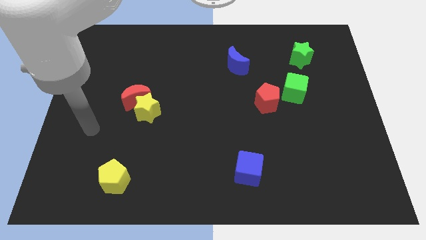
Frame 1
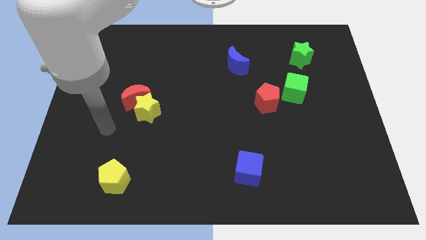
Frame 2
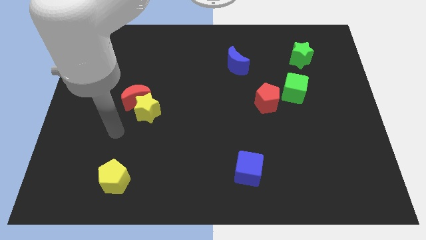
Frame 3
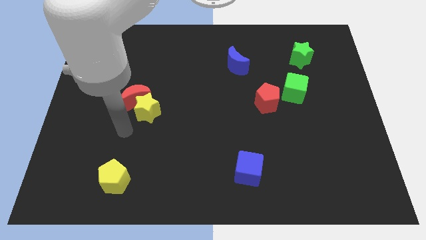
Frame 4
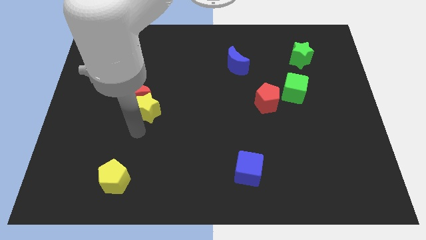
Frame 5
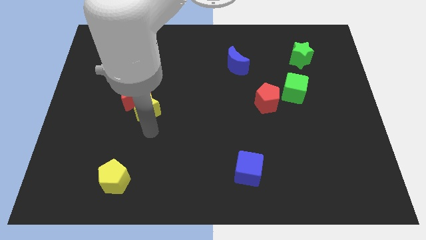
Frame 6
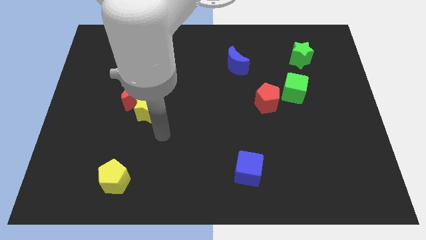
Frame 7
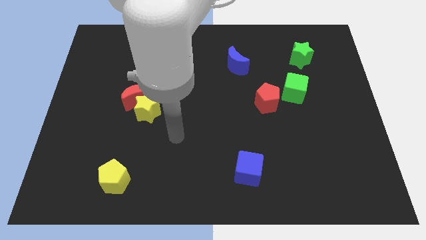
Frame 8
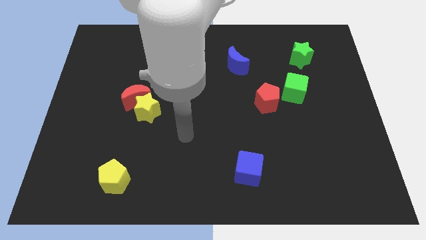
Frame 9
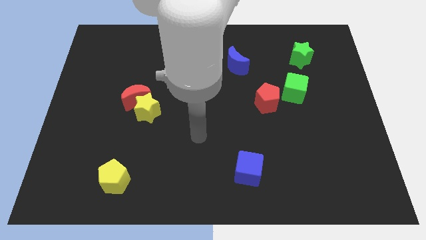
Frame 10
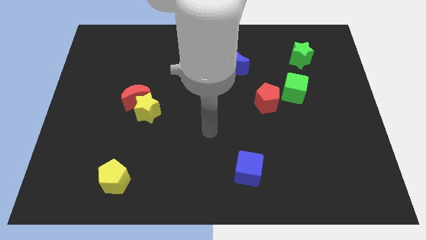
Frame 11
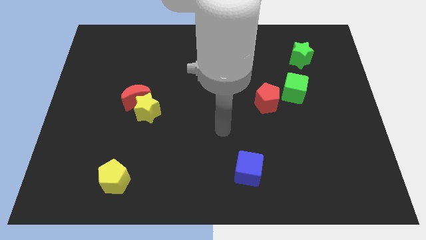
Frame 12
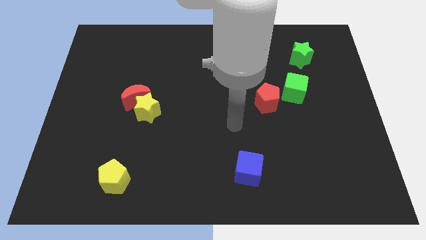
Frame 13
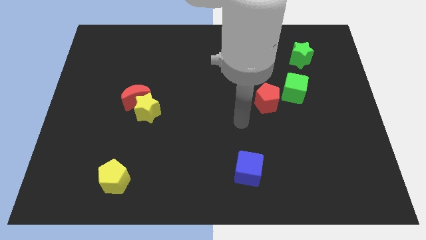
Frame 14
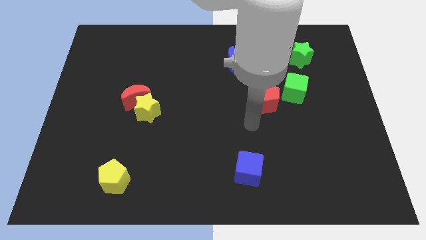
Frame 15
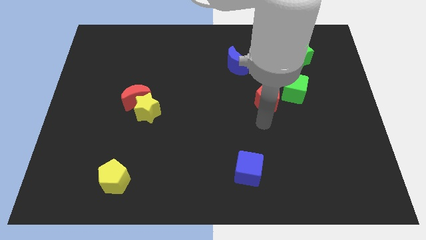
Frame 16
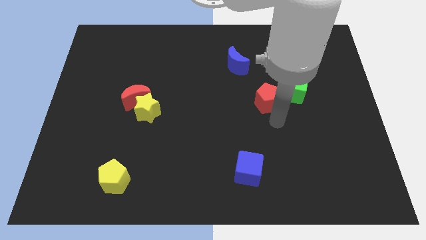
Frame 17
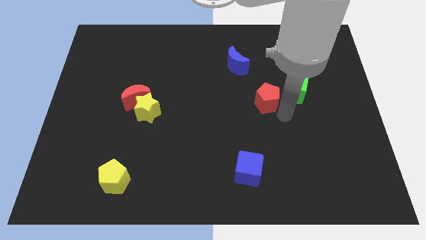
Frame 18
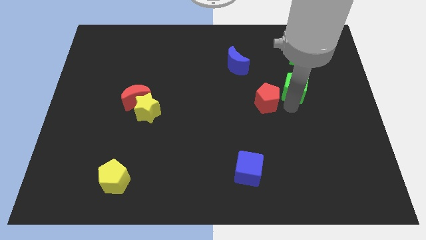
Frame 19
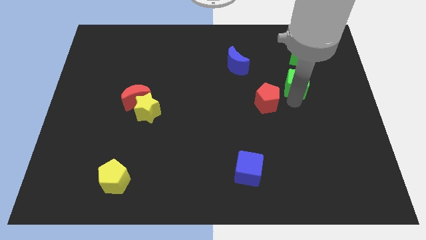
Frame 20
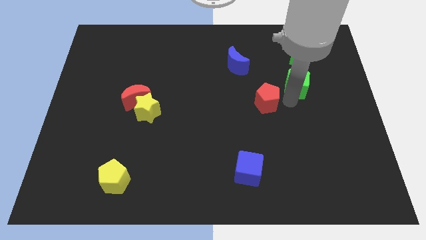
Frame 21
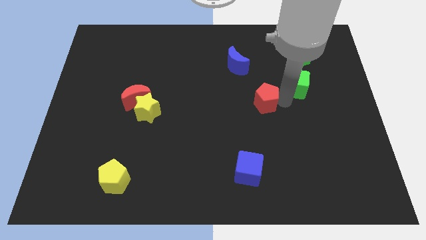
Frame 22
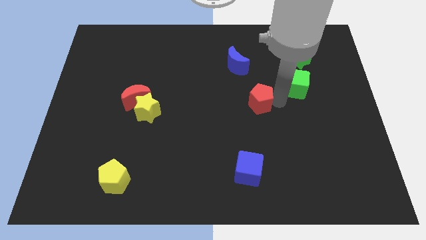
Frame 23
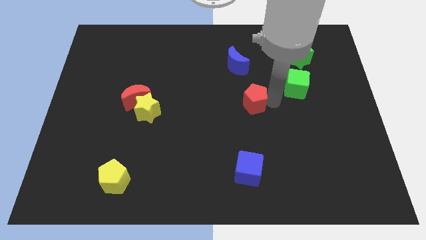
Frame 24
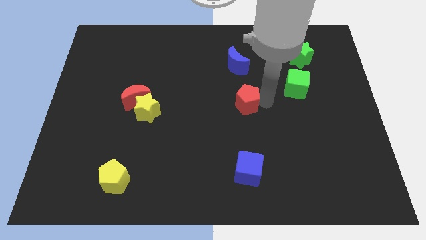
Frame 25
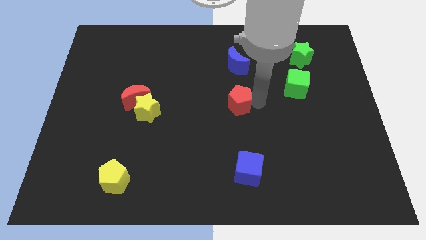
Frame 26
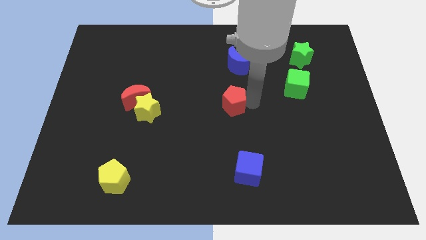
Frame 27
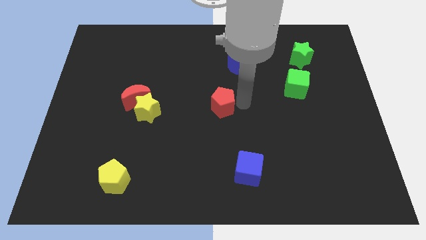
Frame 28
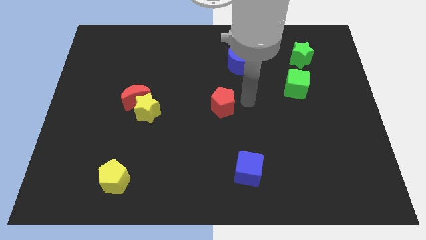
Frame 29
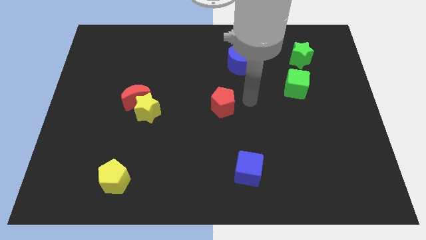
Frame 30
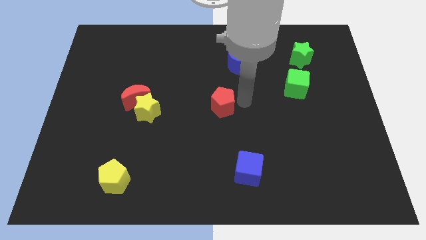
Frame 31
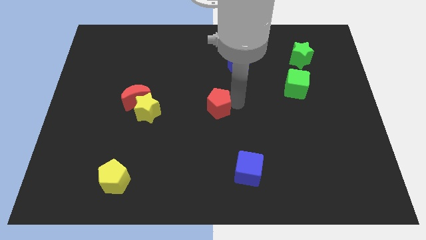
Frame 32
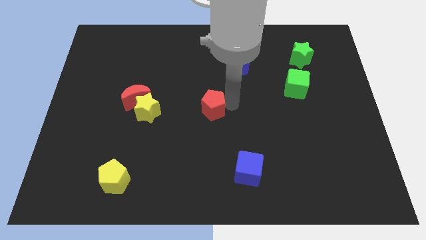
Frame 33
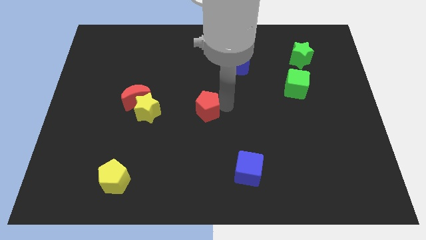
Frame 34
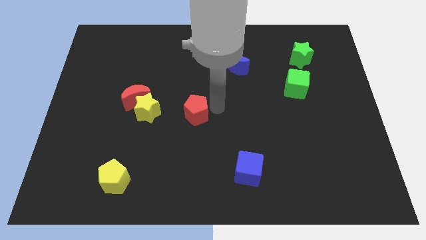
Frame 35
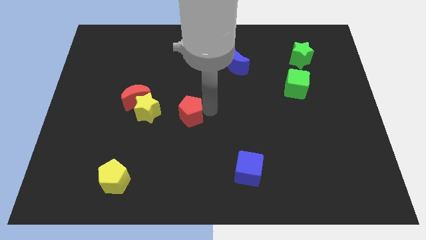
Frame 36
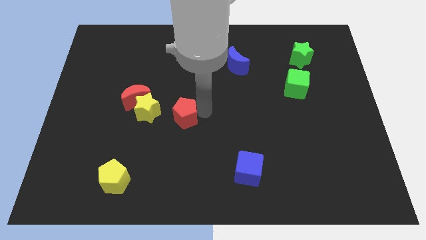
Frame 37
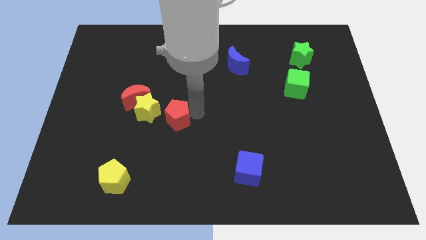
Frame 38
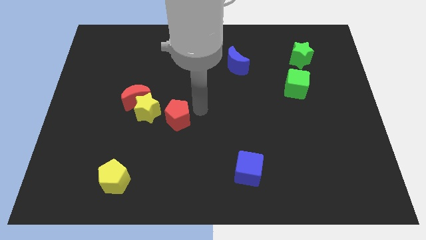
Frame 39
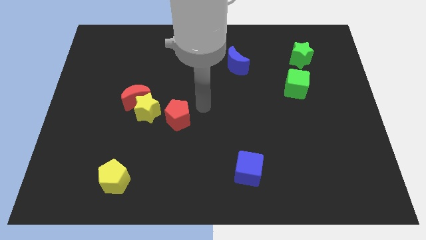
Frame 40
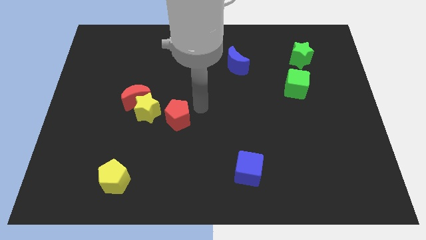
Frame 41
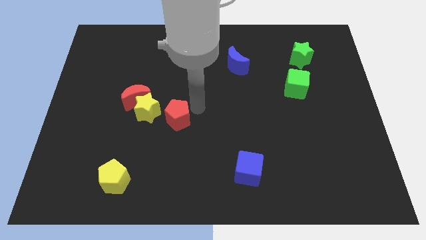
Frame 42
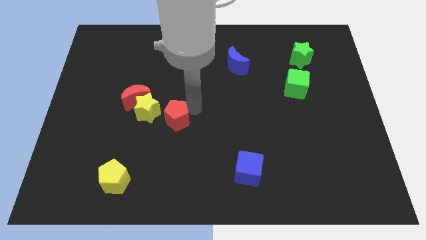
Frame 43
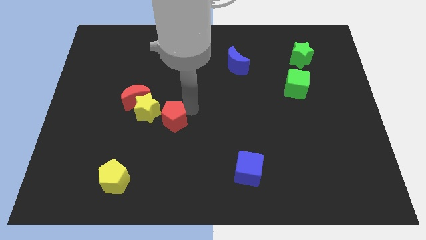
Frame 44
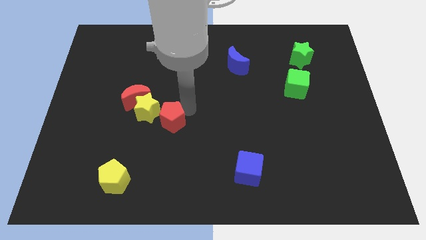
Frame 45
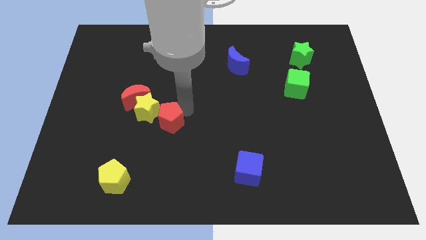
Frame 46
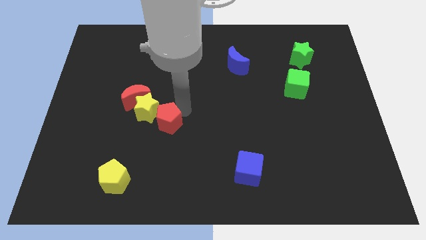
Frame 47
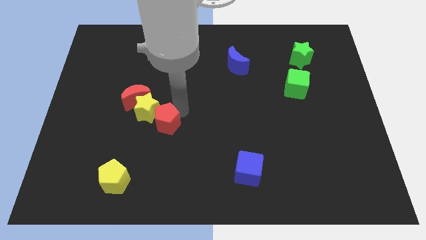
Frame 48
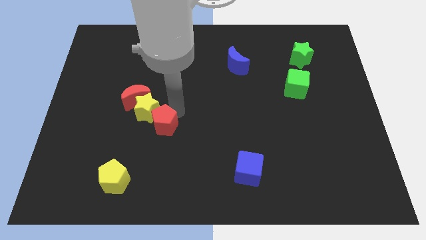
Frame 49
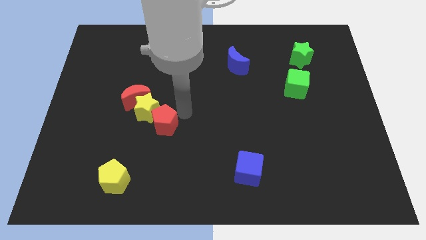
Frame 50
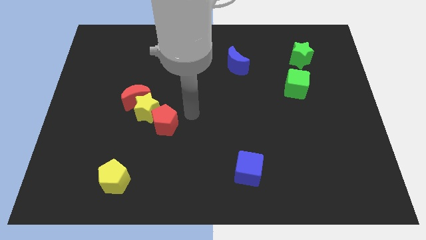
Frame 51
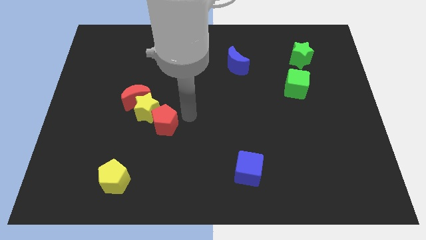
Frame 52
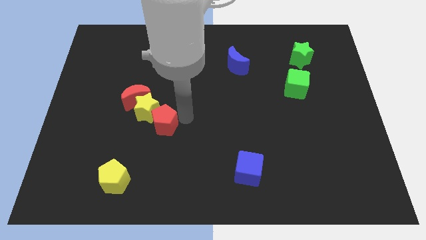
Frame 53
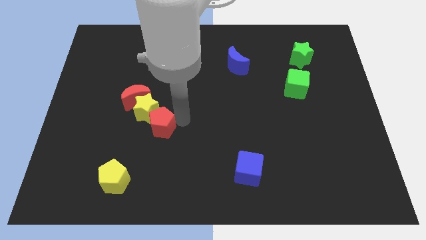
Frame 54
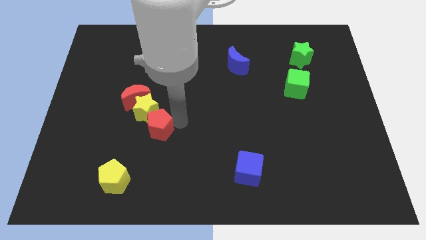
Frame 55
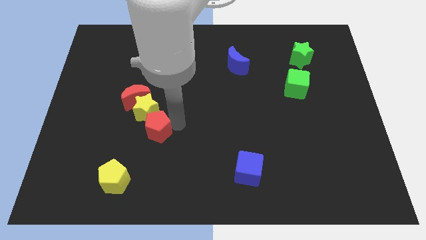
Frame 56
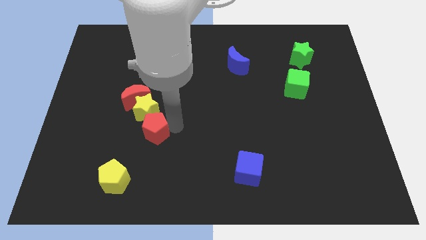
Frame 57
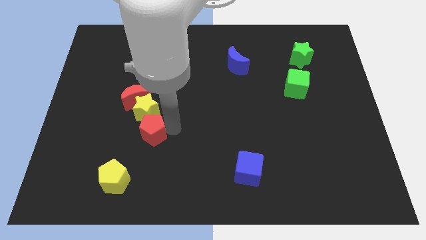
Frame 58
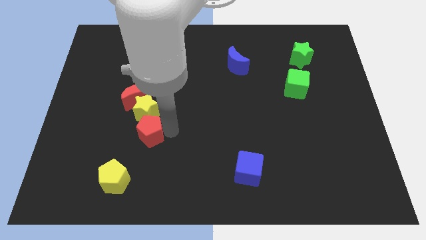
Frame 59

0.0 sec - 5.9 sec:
move the red pentagon to the bottom of the red moon

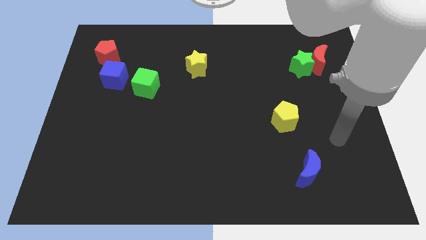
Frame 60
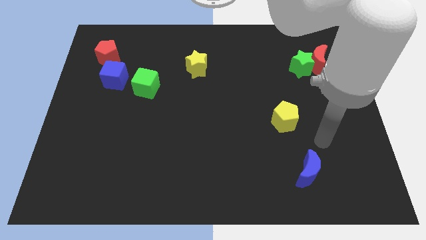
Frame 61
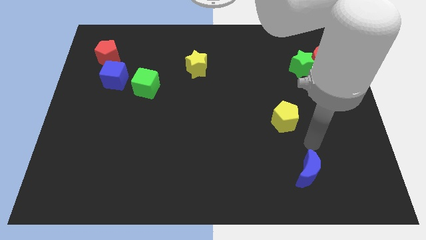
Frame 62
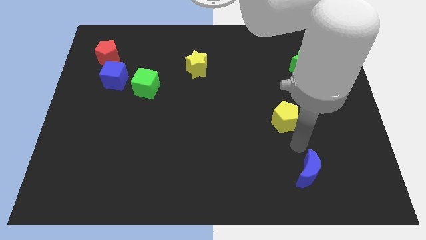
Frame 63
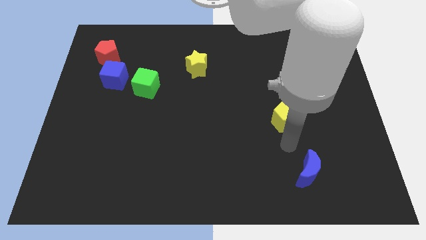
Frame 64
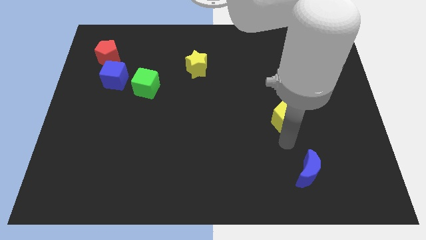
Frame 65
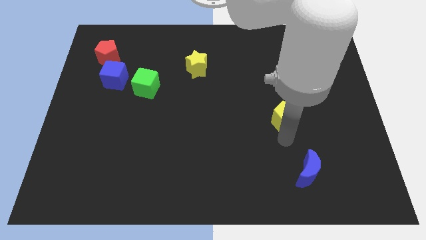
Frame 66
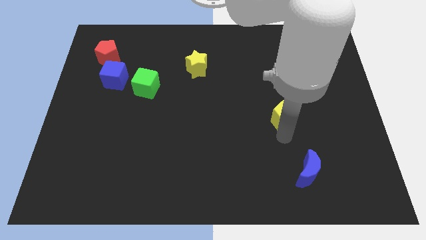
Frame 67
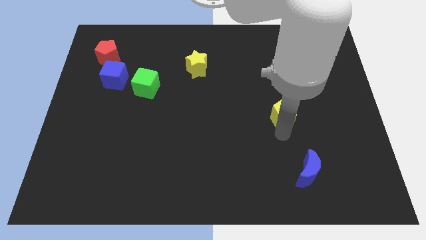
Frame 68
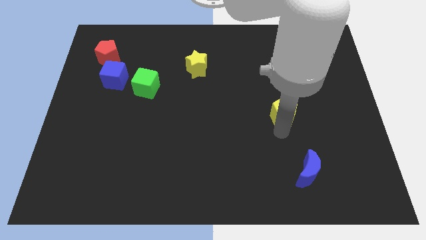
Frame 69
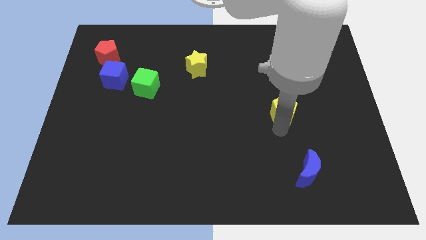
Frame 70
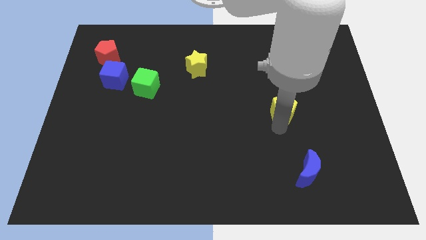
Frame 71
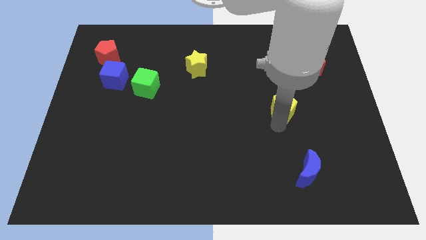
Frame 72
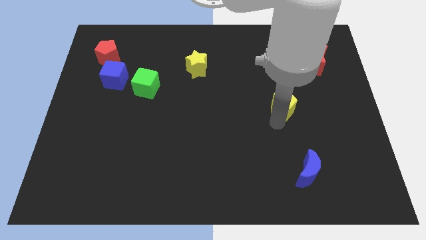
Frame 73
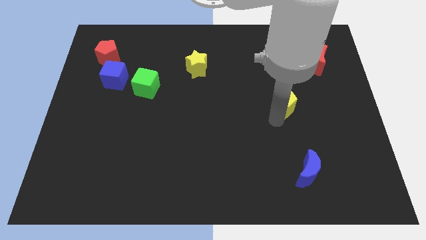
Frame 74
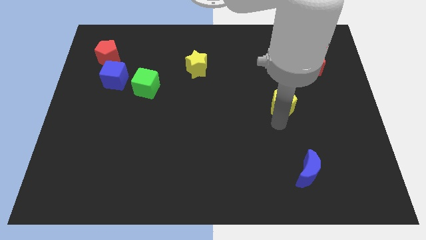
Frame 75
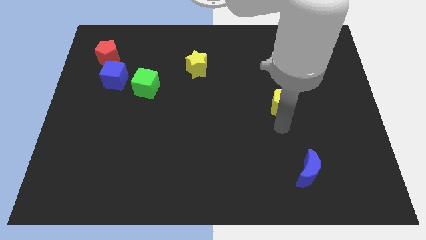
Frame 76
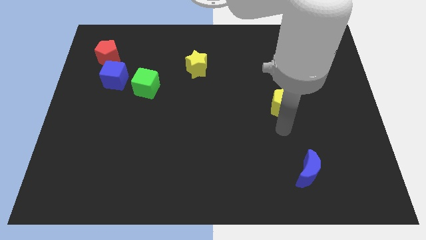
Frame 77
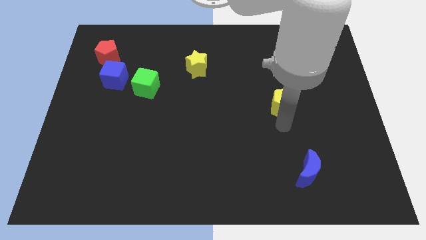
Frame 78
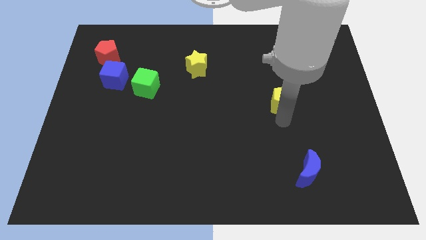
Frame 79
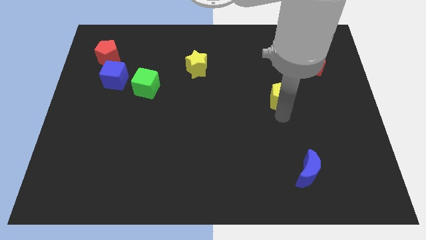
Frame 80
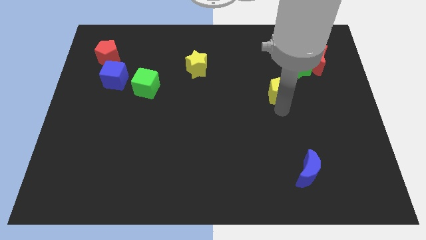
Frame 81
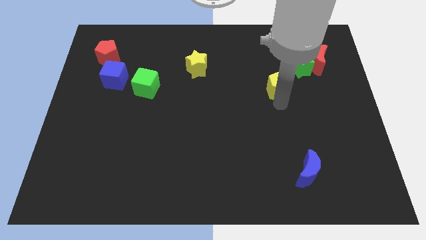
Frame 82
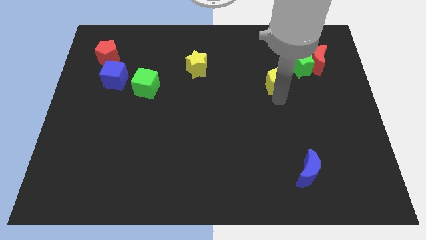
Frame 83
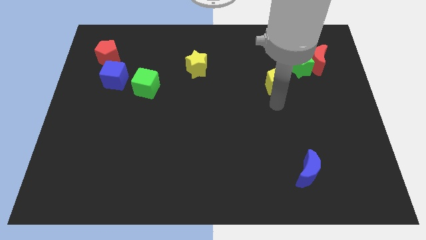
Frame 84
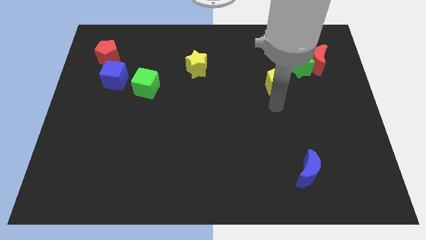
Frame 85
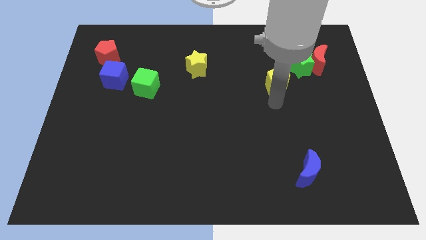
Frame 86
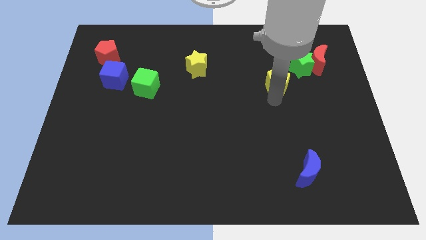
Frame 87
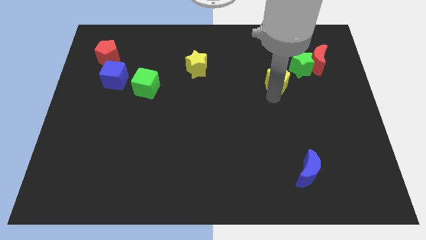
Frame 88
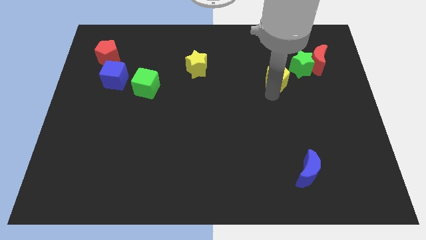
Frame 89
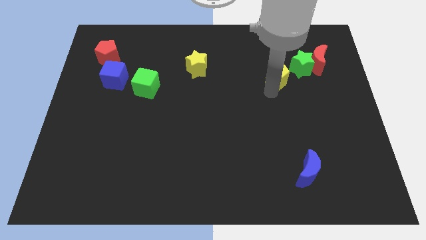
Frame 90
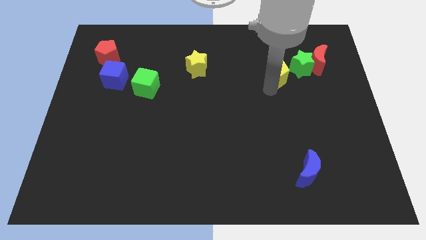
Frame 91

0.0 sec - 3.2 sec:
push the yellow pentagon to the left side of the red moon
